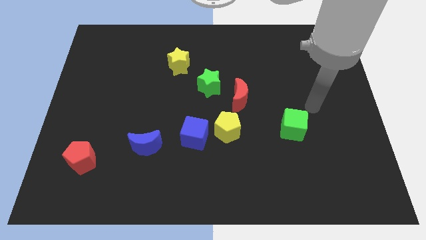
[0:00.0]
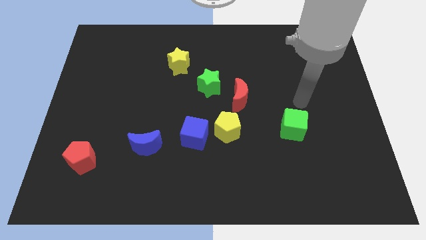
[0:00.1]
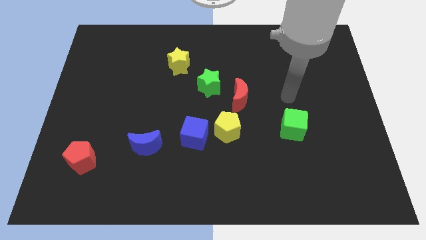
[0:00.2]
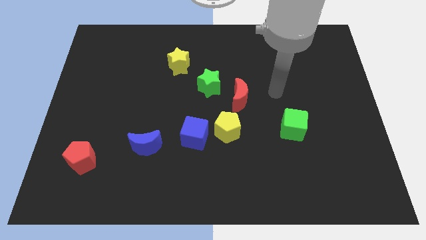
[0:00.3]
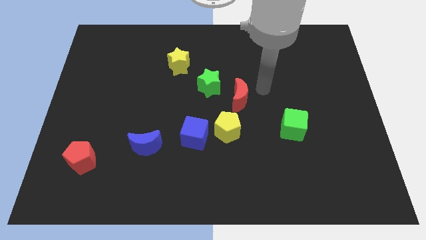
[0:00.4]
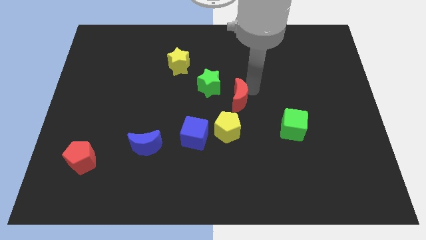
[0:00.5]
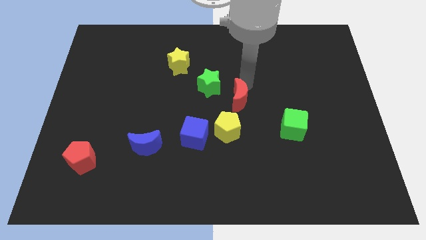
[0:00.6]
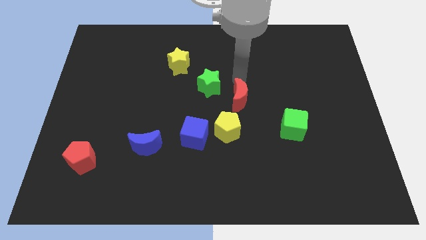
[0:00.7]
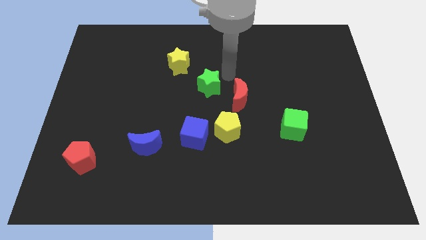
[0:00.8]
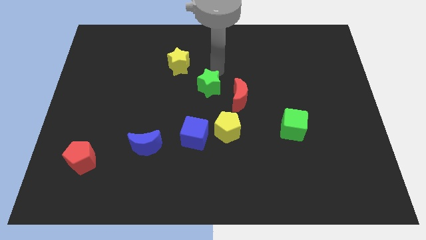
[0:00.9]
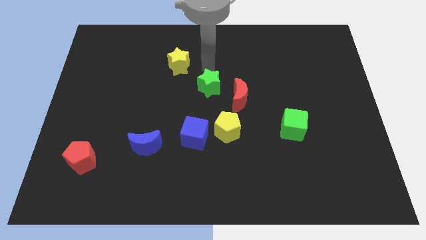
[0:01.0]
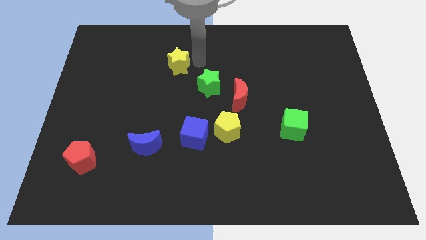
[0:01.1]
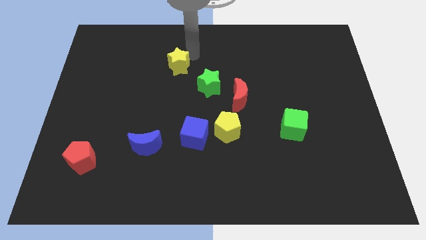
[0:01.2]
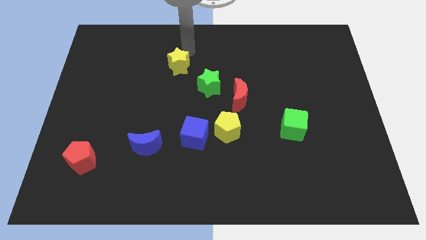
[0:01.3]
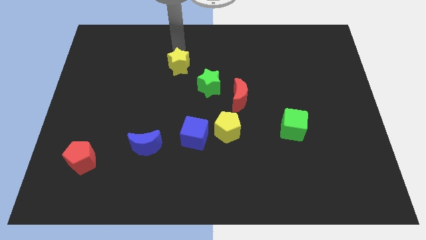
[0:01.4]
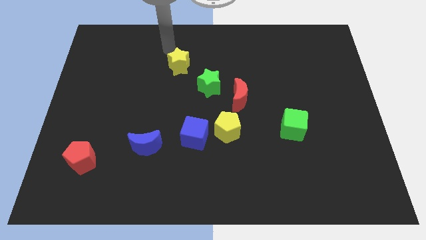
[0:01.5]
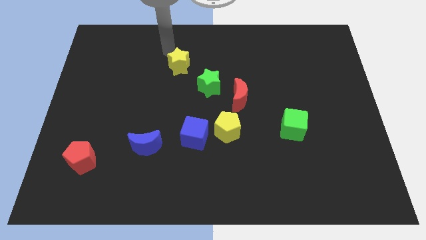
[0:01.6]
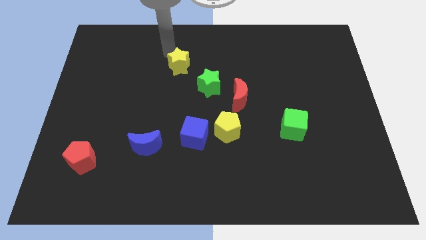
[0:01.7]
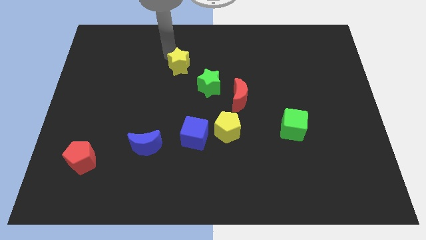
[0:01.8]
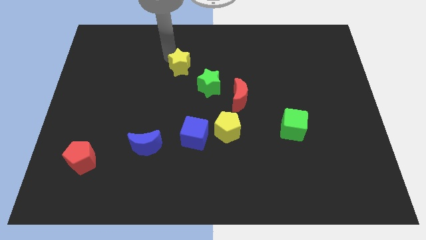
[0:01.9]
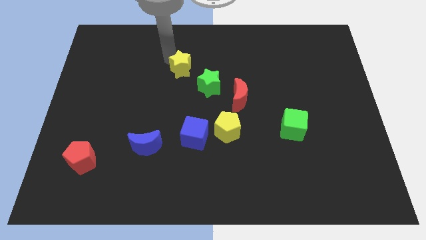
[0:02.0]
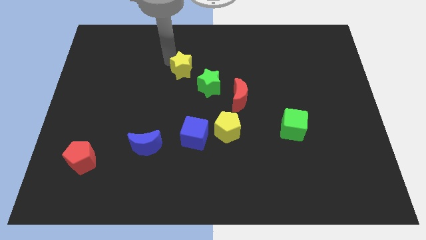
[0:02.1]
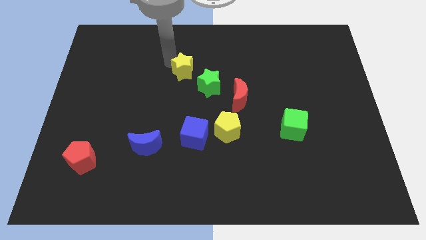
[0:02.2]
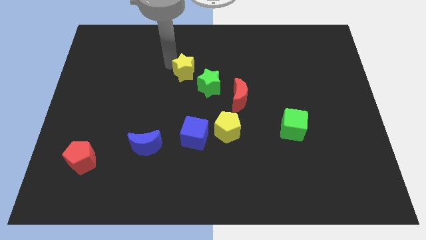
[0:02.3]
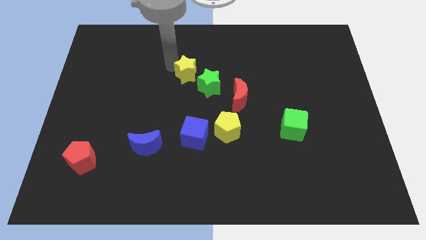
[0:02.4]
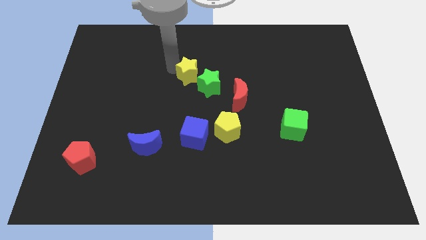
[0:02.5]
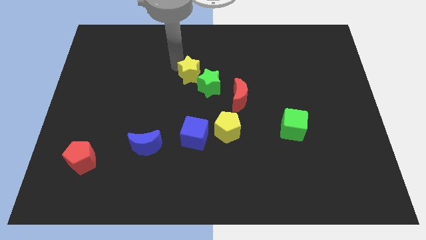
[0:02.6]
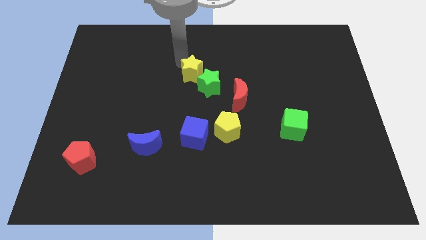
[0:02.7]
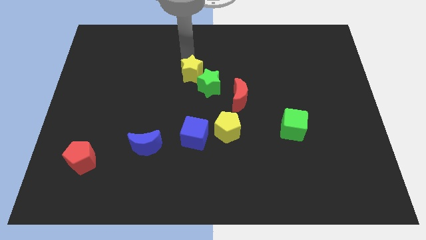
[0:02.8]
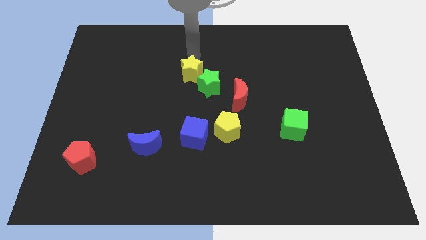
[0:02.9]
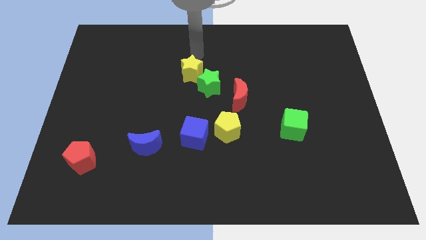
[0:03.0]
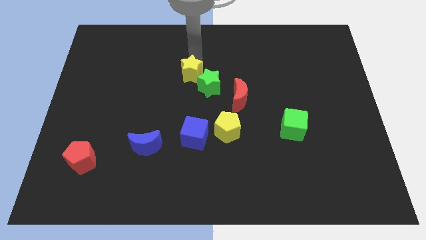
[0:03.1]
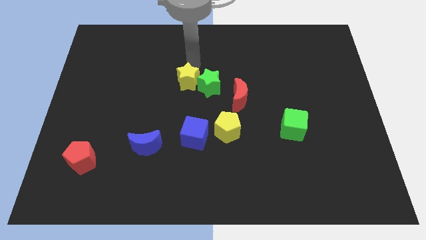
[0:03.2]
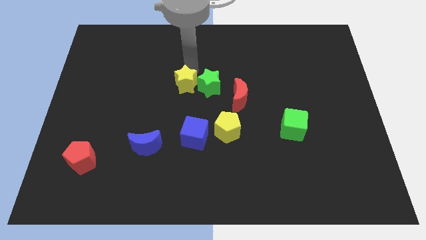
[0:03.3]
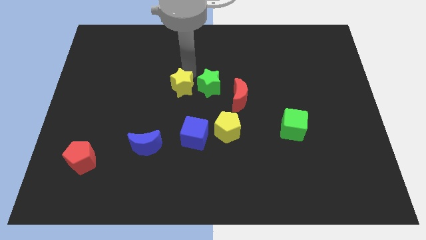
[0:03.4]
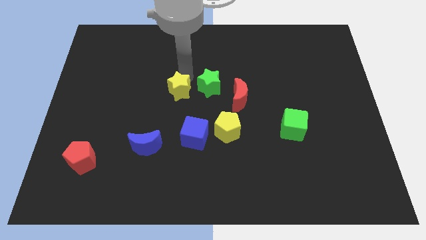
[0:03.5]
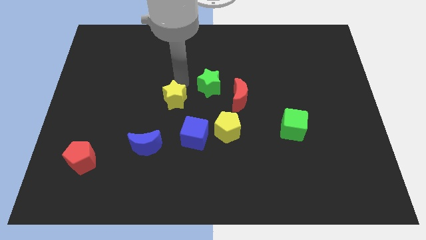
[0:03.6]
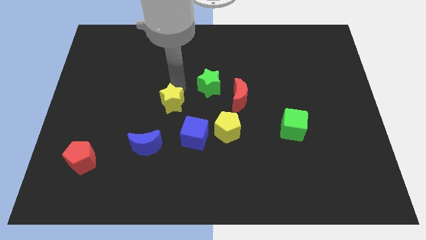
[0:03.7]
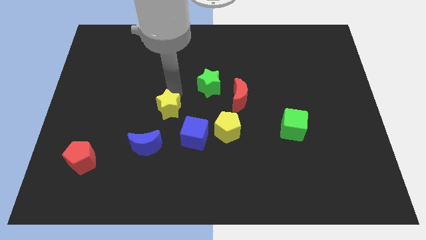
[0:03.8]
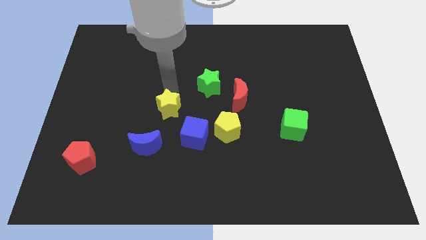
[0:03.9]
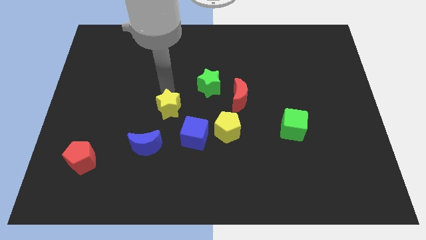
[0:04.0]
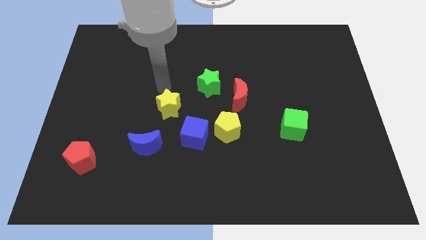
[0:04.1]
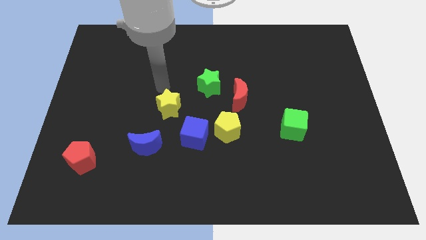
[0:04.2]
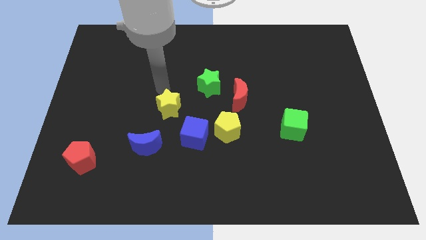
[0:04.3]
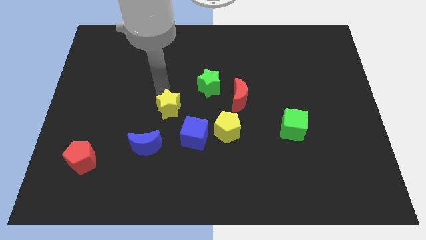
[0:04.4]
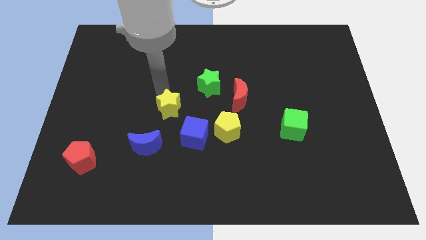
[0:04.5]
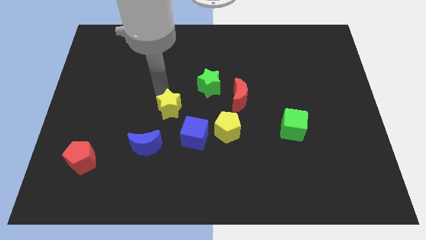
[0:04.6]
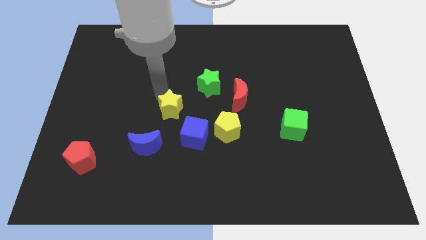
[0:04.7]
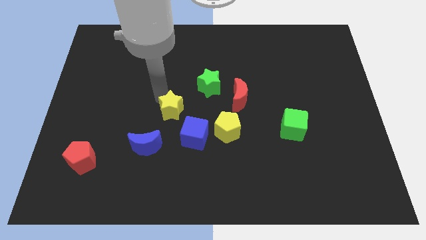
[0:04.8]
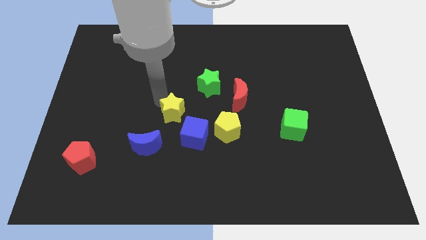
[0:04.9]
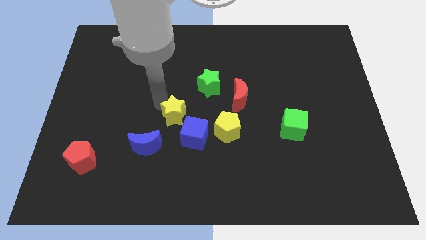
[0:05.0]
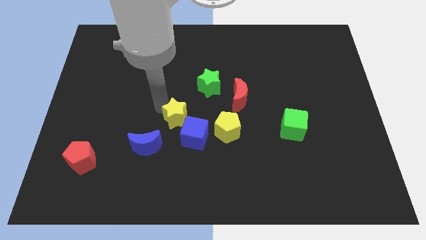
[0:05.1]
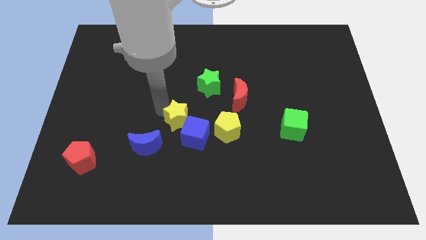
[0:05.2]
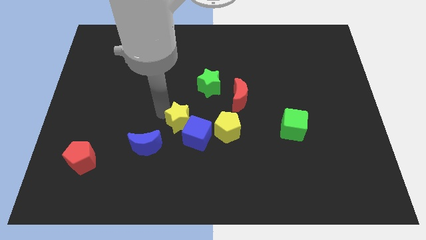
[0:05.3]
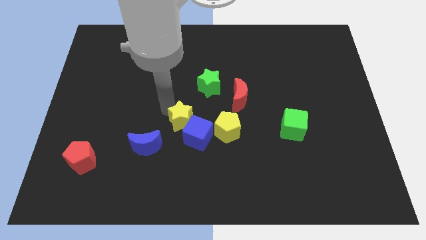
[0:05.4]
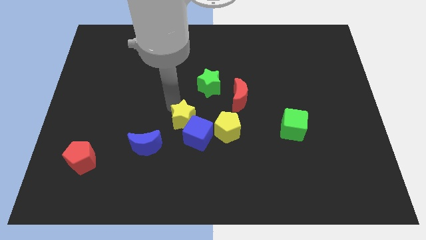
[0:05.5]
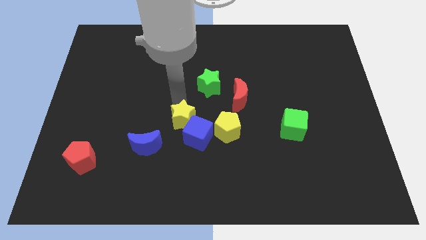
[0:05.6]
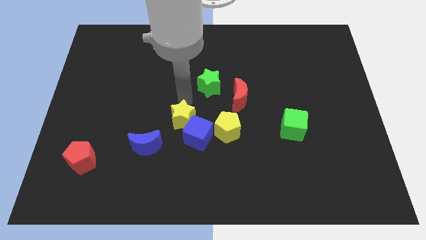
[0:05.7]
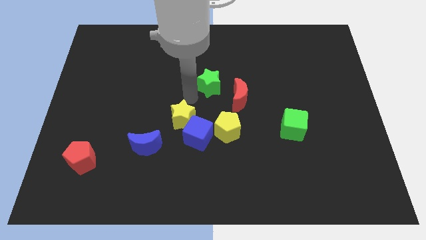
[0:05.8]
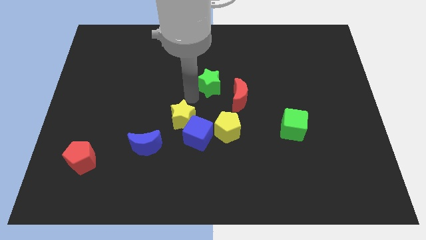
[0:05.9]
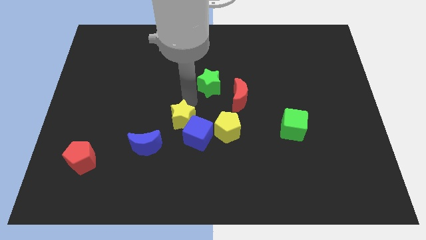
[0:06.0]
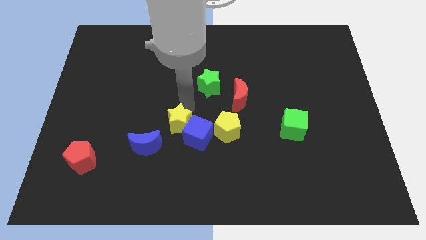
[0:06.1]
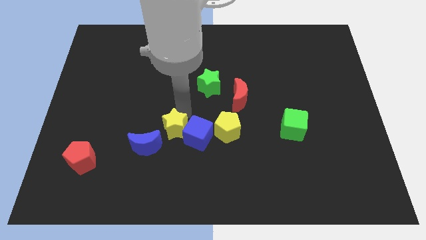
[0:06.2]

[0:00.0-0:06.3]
push the yellow star downwards

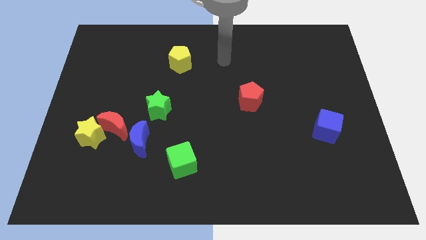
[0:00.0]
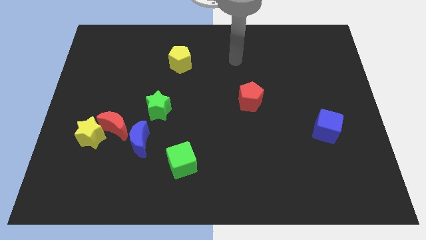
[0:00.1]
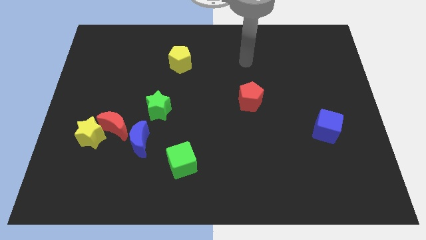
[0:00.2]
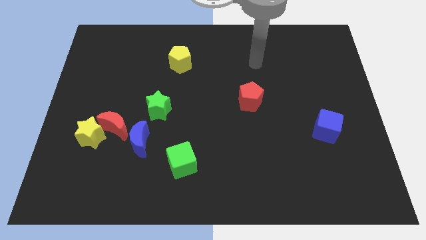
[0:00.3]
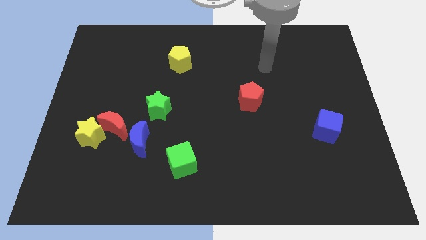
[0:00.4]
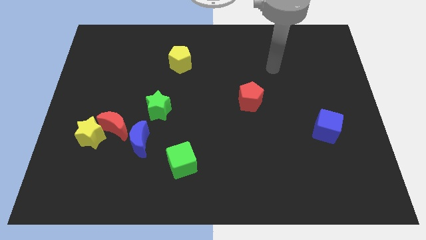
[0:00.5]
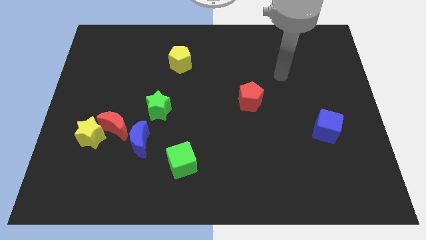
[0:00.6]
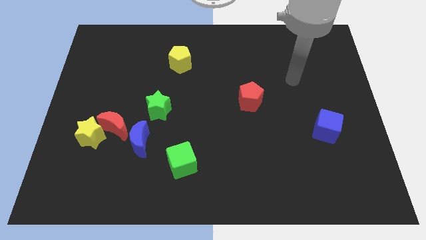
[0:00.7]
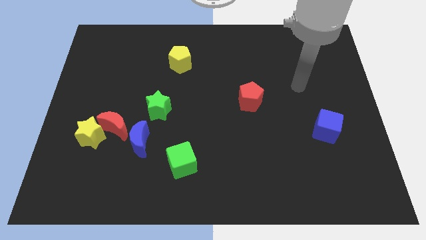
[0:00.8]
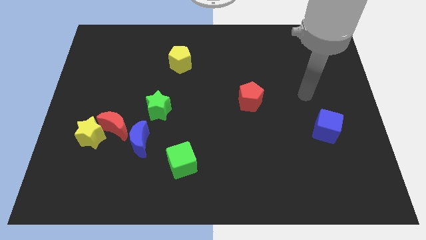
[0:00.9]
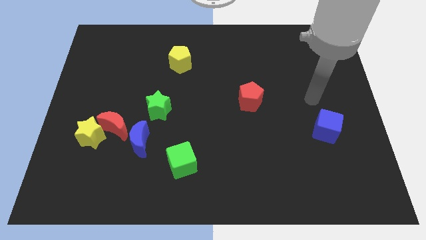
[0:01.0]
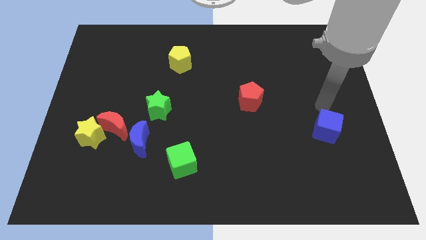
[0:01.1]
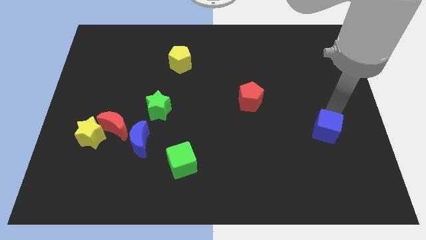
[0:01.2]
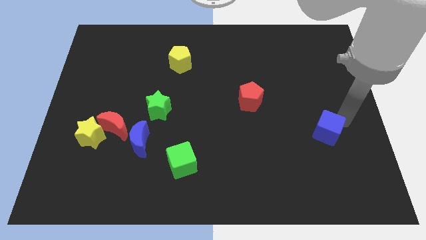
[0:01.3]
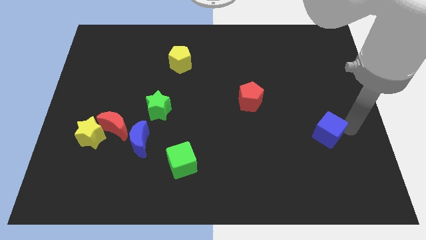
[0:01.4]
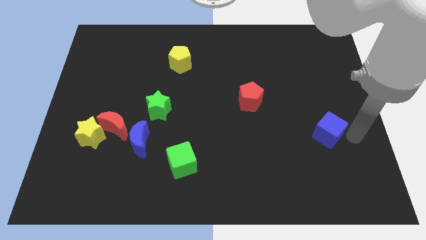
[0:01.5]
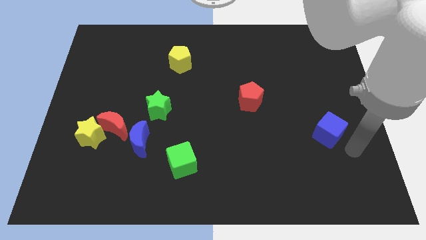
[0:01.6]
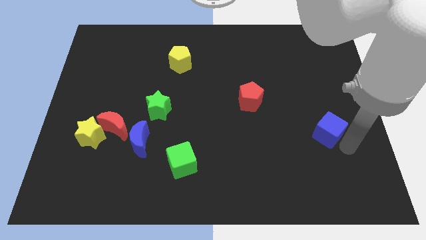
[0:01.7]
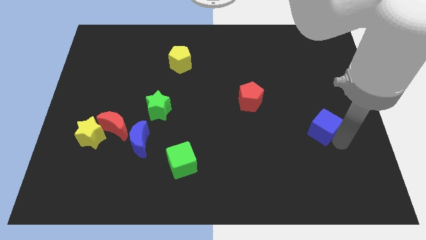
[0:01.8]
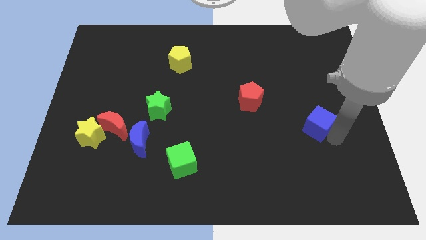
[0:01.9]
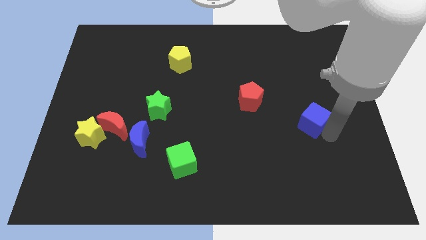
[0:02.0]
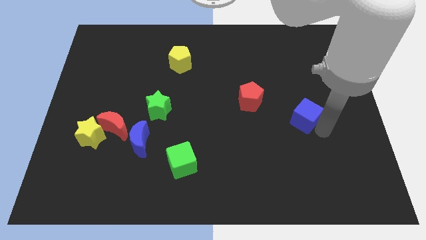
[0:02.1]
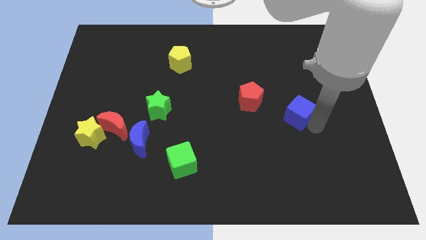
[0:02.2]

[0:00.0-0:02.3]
slide the blue cube slightly up and to the left diagonally
